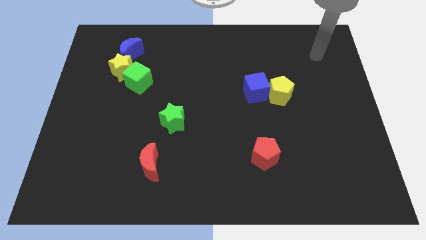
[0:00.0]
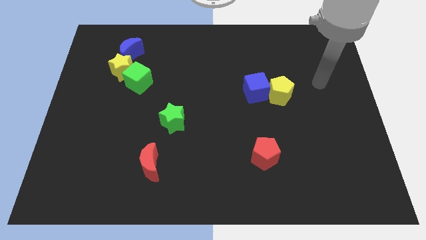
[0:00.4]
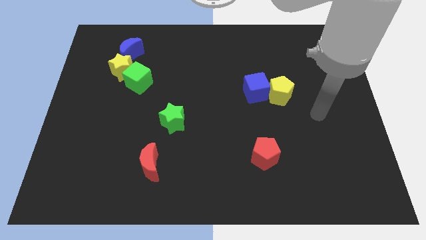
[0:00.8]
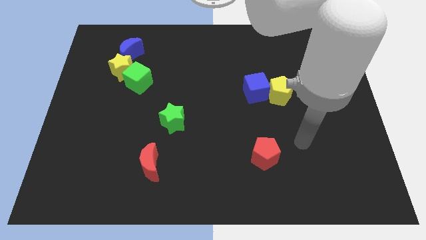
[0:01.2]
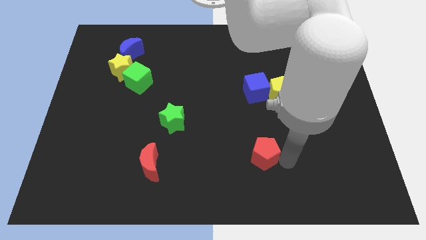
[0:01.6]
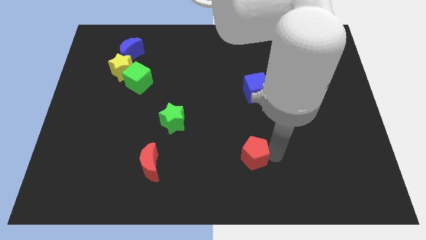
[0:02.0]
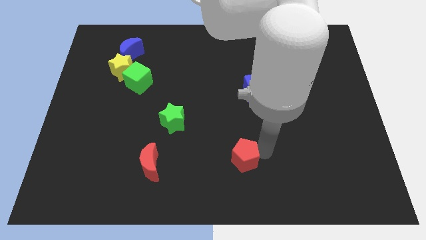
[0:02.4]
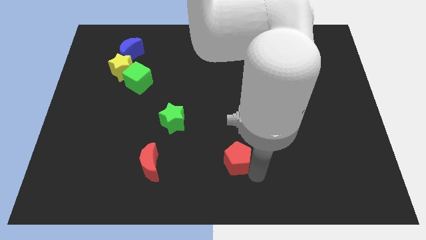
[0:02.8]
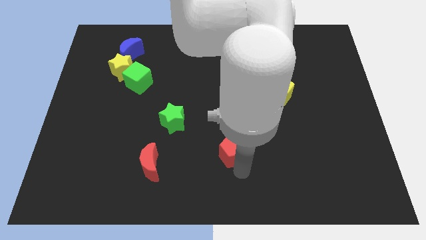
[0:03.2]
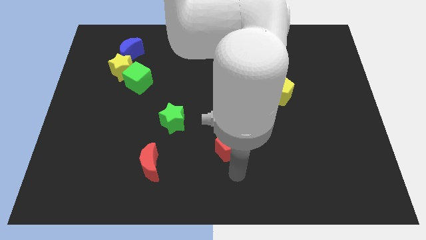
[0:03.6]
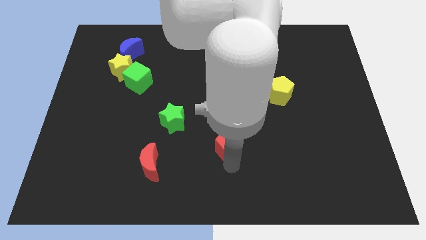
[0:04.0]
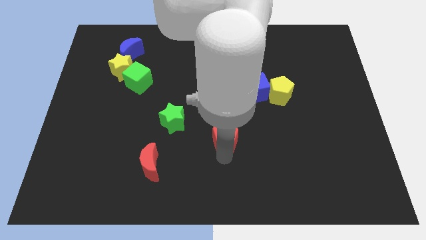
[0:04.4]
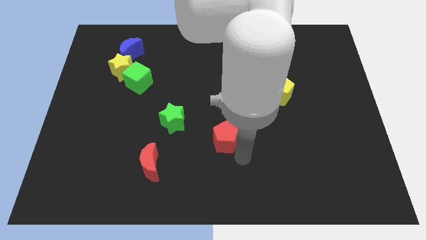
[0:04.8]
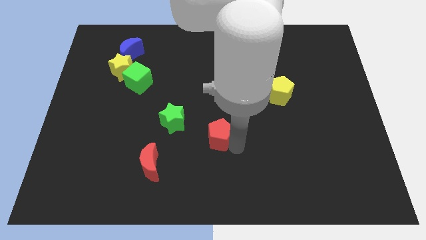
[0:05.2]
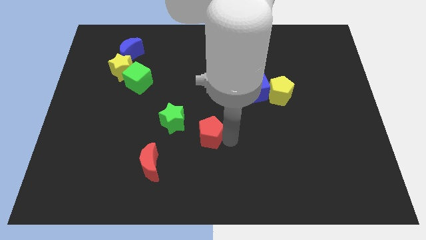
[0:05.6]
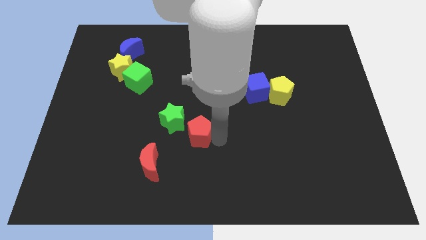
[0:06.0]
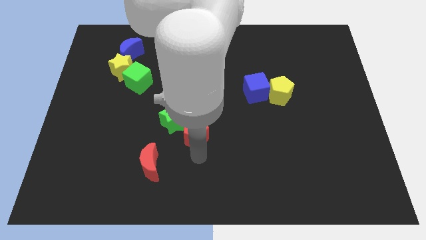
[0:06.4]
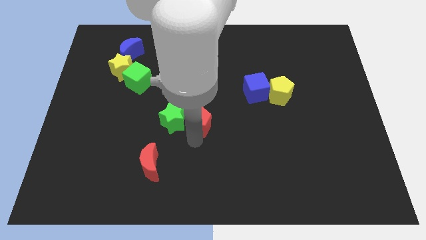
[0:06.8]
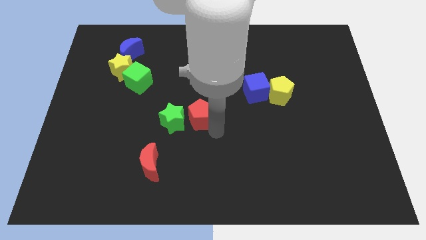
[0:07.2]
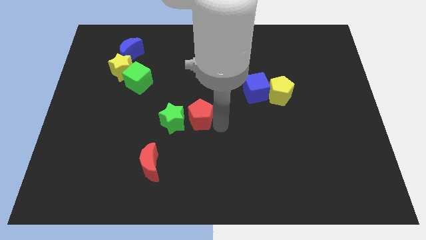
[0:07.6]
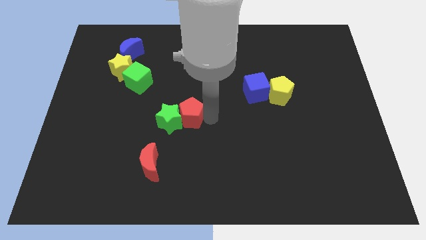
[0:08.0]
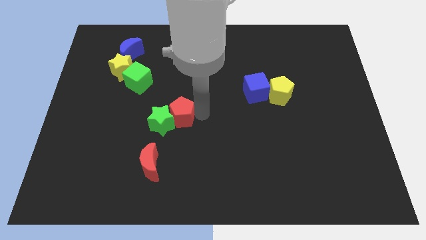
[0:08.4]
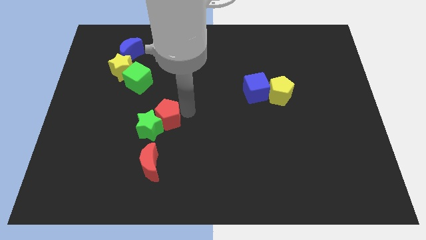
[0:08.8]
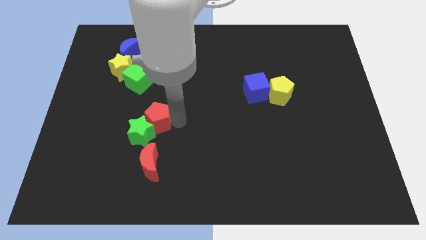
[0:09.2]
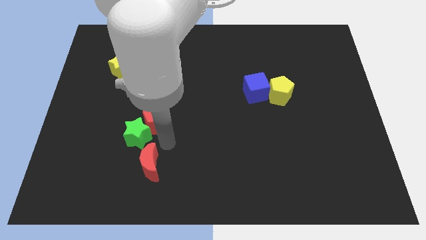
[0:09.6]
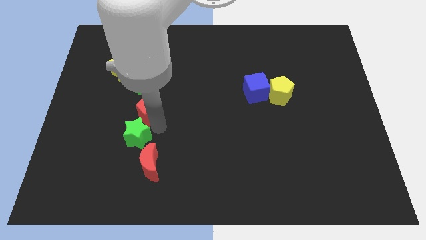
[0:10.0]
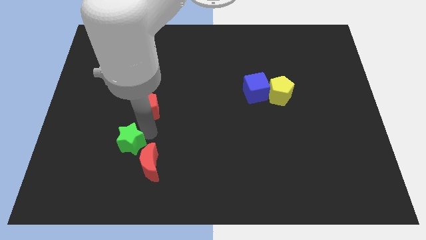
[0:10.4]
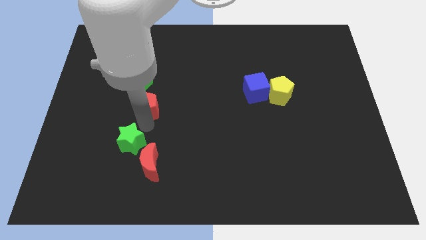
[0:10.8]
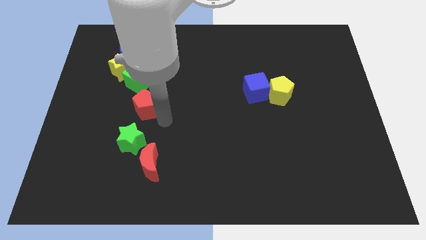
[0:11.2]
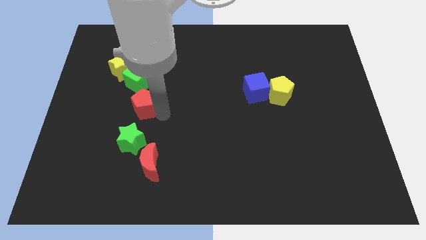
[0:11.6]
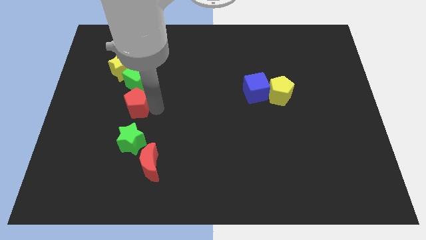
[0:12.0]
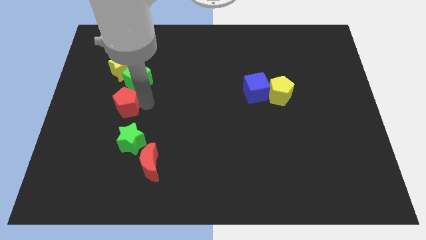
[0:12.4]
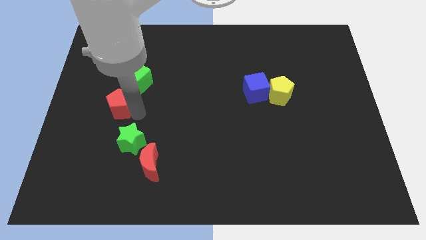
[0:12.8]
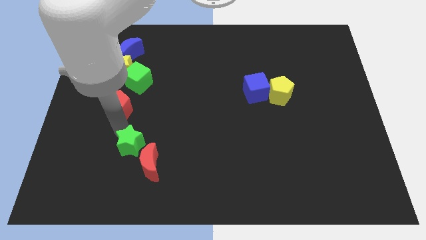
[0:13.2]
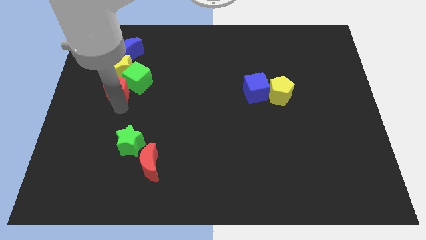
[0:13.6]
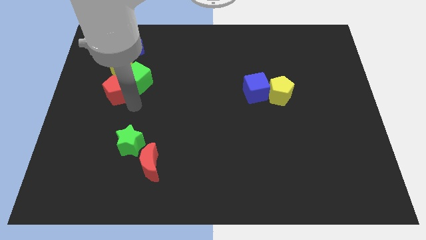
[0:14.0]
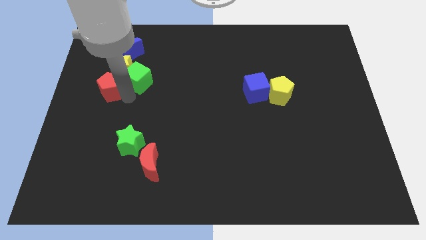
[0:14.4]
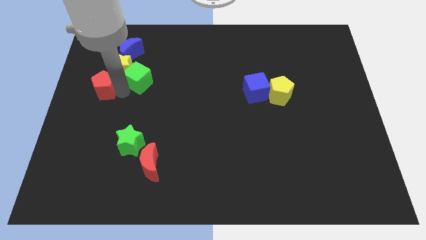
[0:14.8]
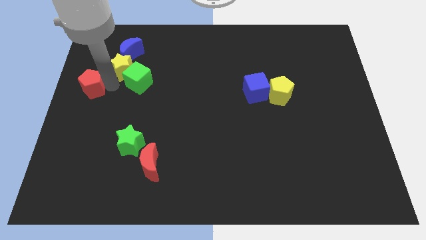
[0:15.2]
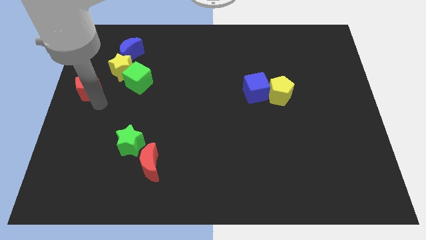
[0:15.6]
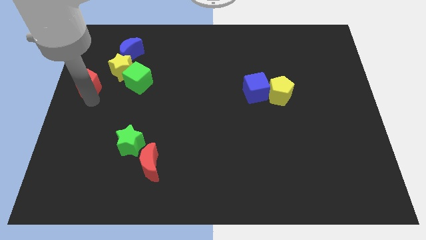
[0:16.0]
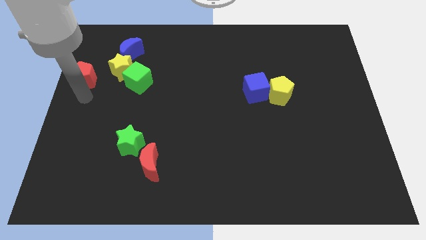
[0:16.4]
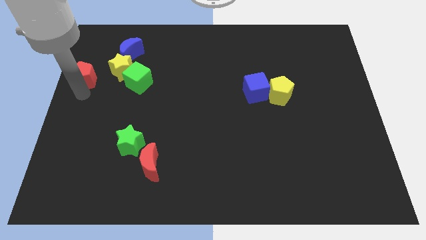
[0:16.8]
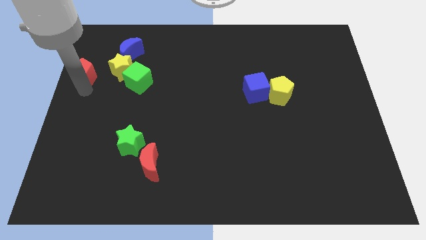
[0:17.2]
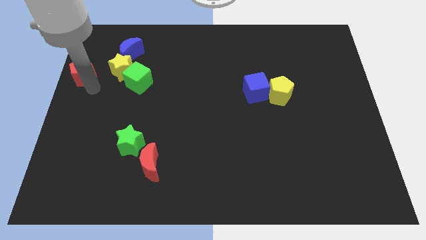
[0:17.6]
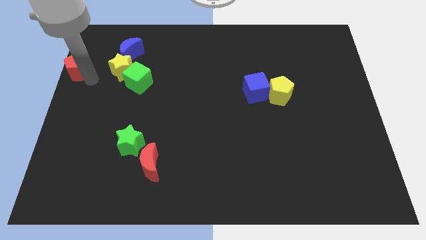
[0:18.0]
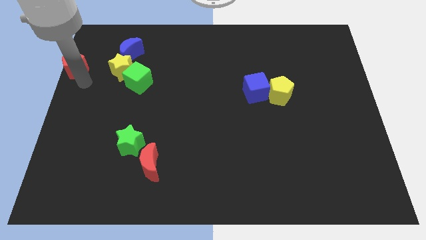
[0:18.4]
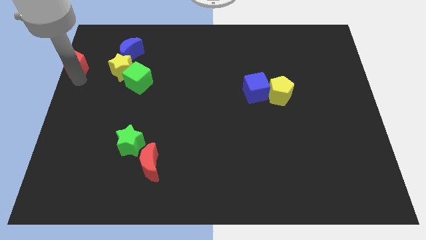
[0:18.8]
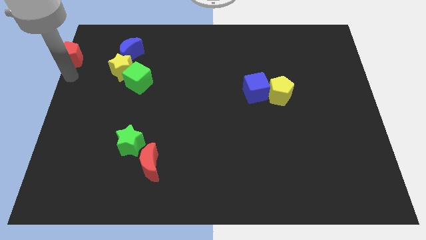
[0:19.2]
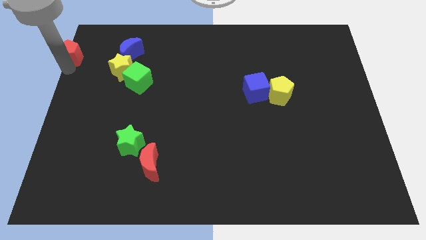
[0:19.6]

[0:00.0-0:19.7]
slide the red pentagon to the top left

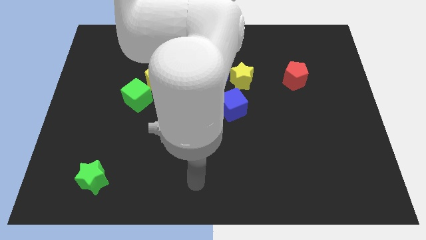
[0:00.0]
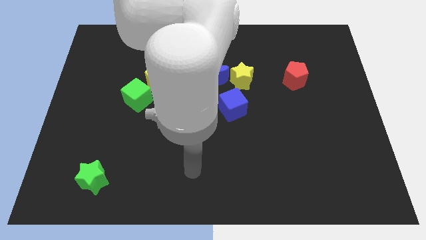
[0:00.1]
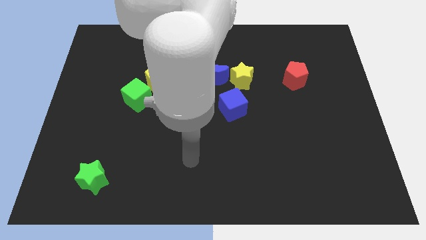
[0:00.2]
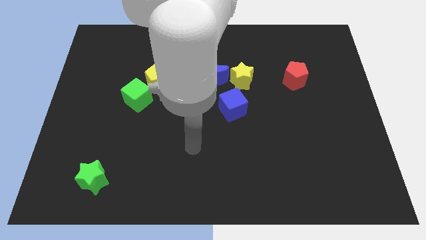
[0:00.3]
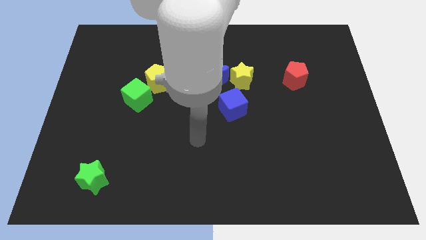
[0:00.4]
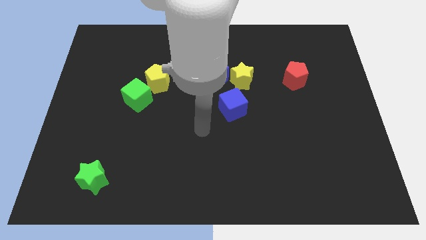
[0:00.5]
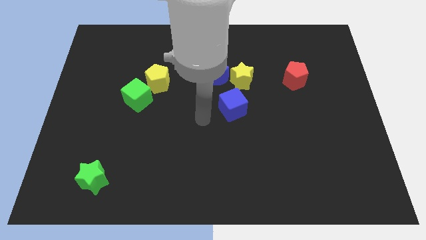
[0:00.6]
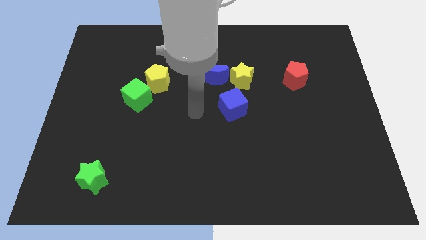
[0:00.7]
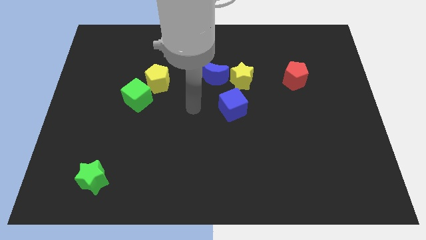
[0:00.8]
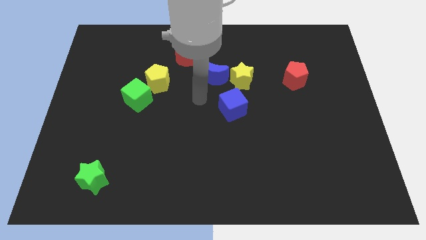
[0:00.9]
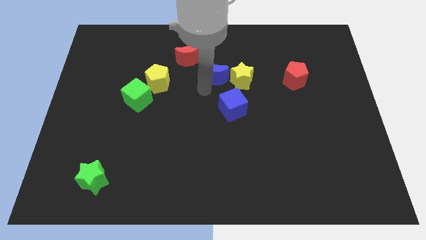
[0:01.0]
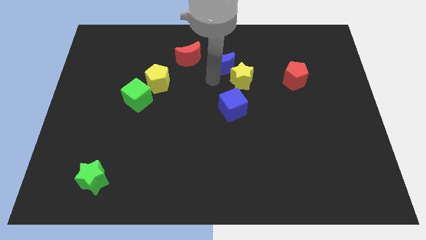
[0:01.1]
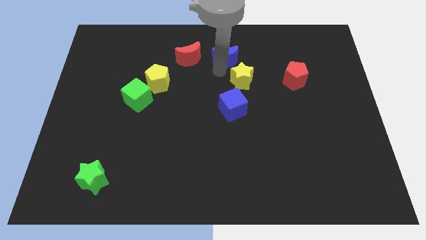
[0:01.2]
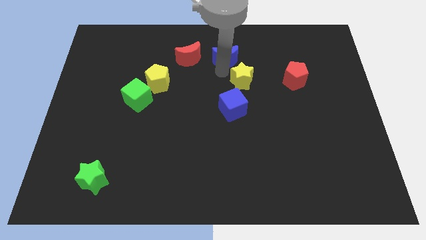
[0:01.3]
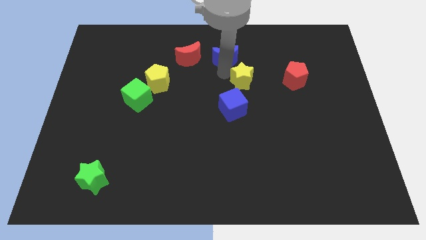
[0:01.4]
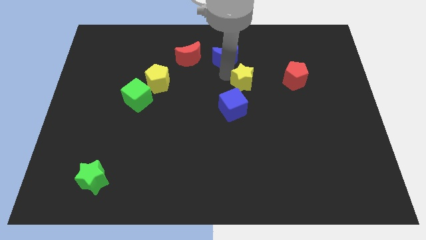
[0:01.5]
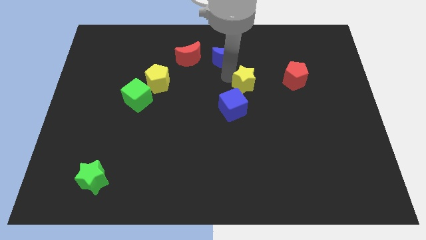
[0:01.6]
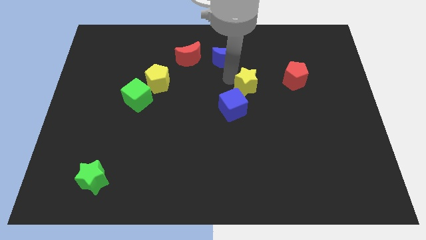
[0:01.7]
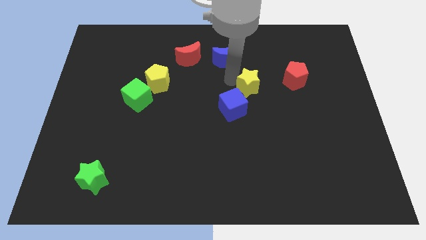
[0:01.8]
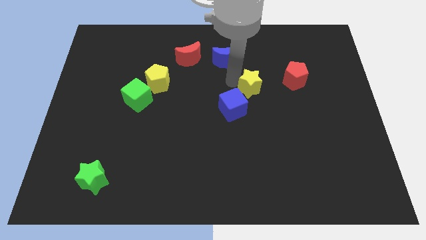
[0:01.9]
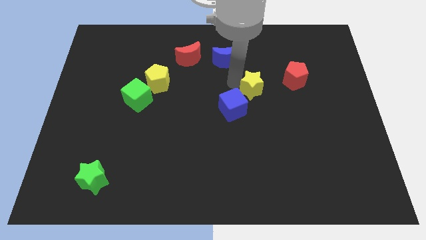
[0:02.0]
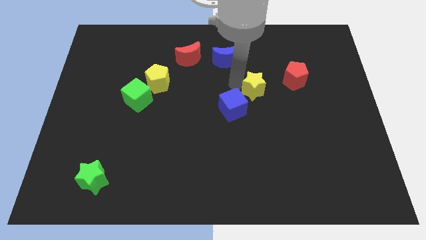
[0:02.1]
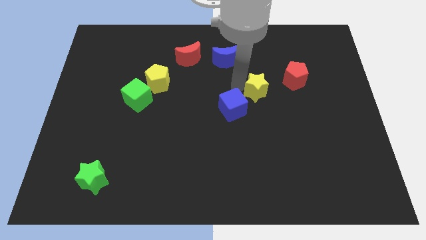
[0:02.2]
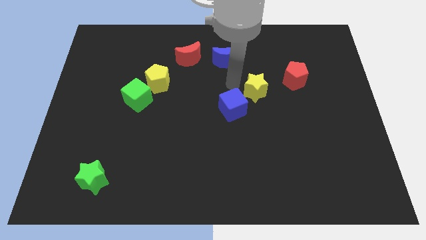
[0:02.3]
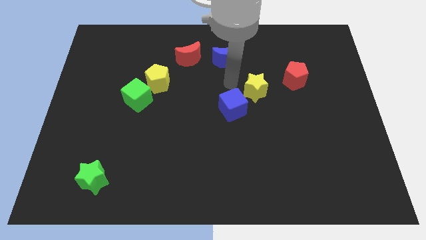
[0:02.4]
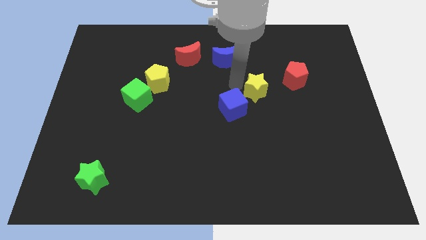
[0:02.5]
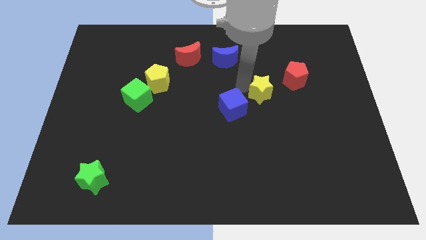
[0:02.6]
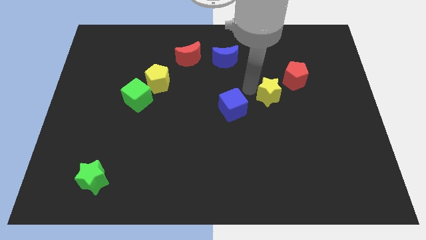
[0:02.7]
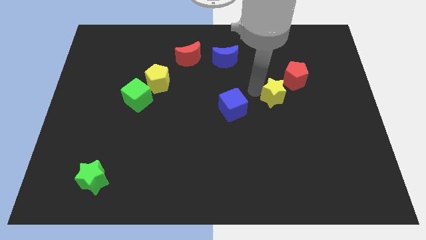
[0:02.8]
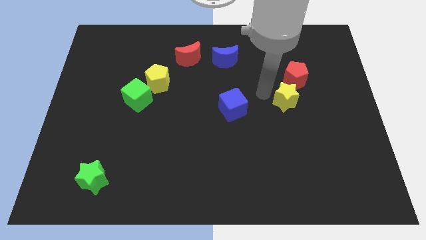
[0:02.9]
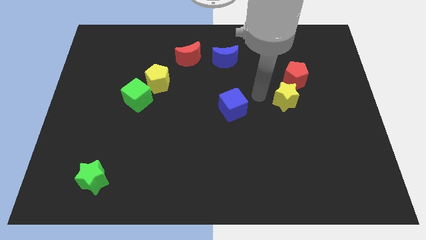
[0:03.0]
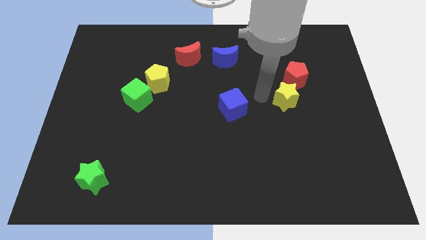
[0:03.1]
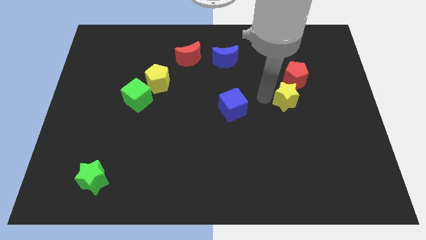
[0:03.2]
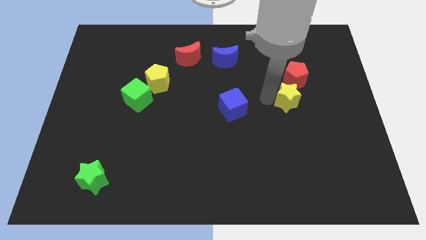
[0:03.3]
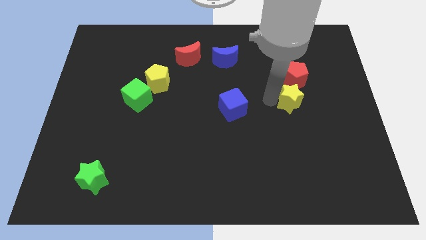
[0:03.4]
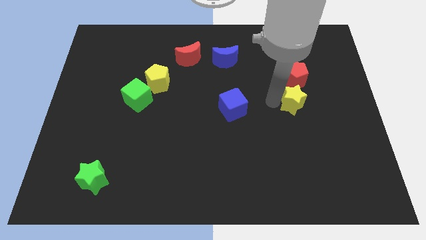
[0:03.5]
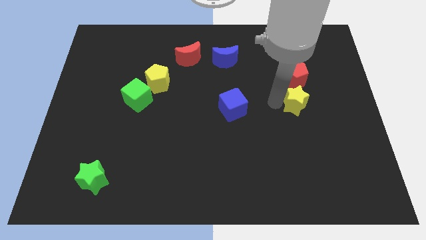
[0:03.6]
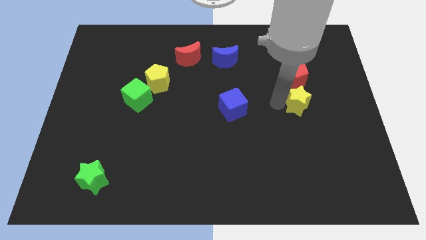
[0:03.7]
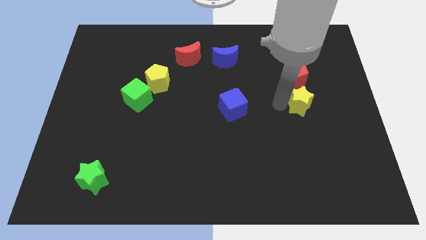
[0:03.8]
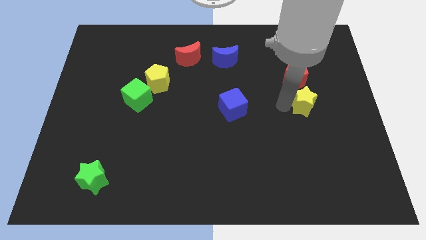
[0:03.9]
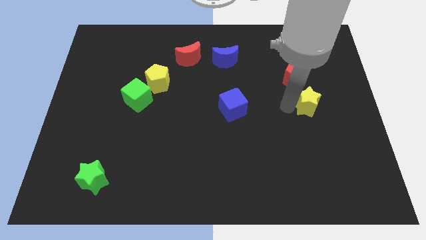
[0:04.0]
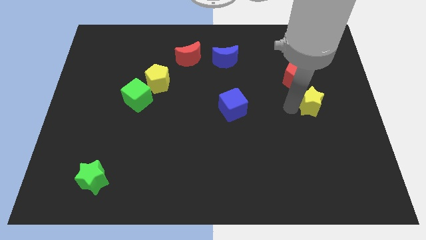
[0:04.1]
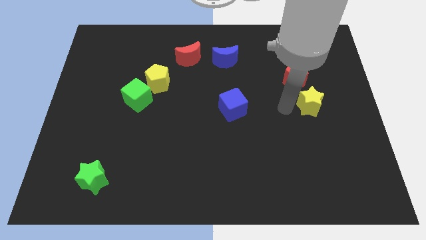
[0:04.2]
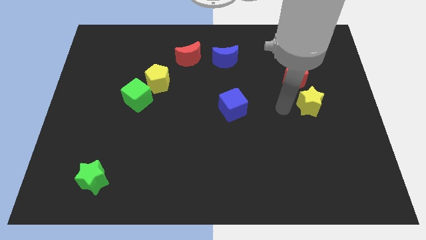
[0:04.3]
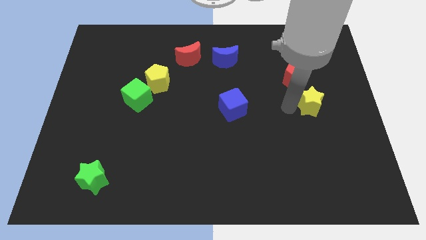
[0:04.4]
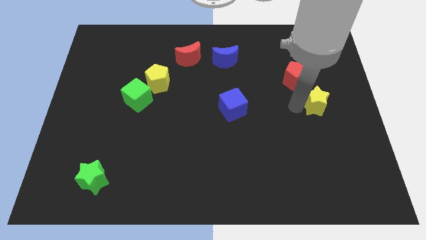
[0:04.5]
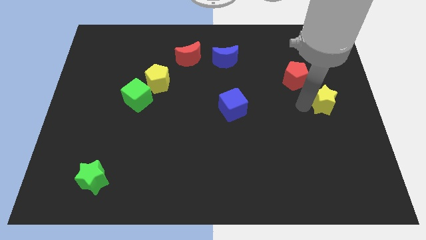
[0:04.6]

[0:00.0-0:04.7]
put the yellow star to the right side of the board
